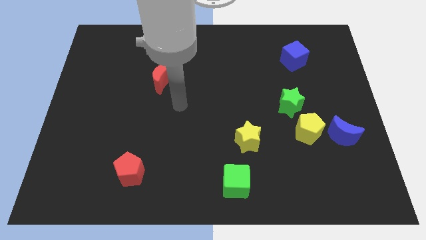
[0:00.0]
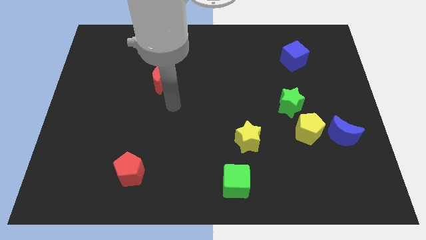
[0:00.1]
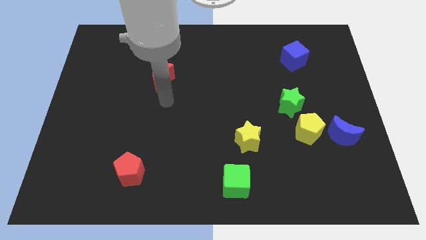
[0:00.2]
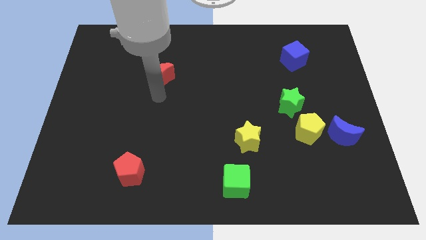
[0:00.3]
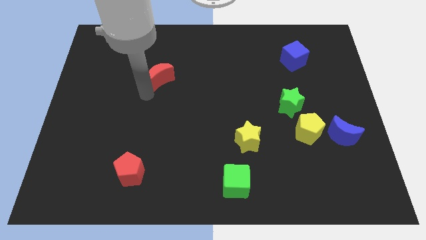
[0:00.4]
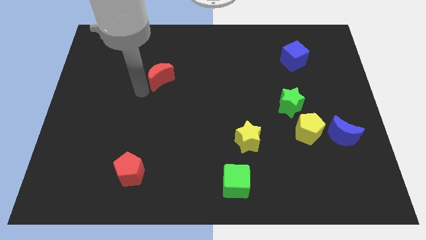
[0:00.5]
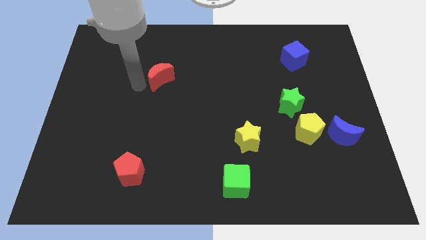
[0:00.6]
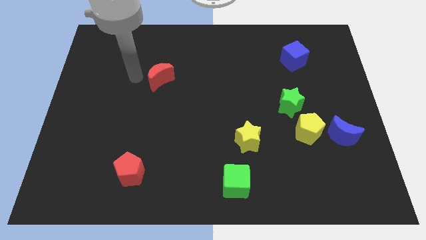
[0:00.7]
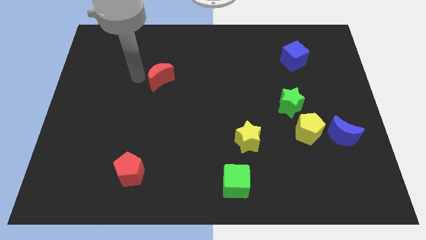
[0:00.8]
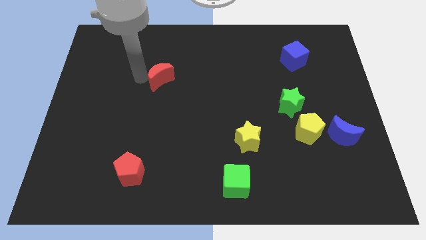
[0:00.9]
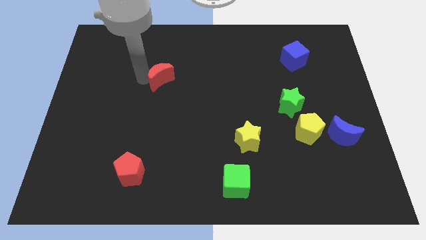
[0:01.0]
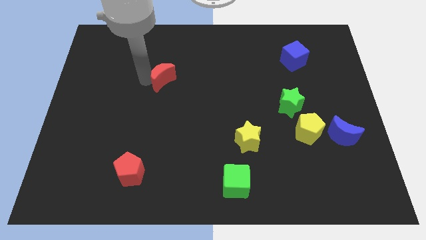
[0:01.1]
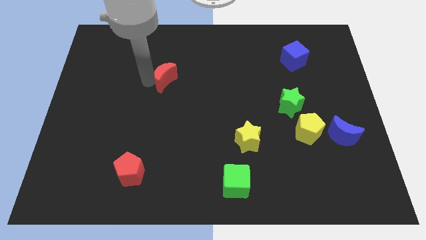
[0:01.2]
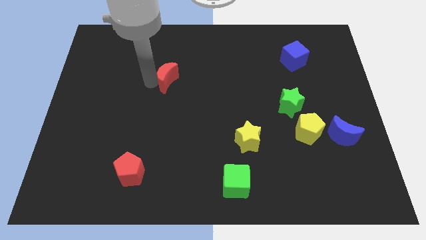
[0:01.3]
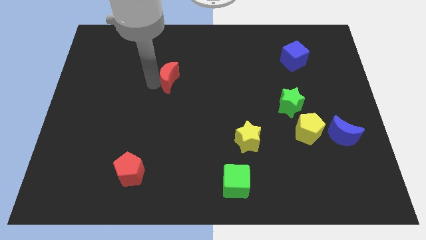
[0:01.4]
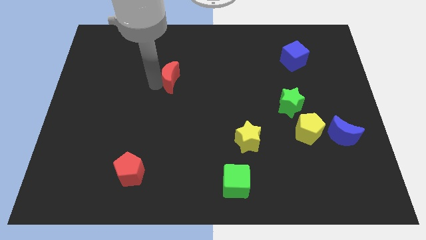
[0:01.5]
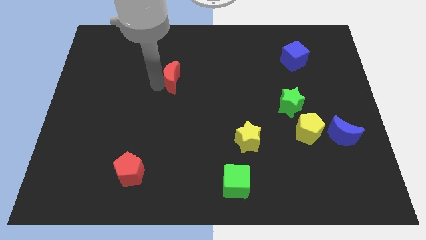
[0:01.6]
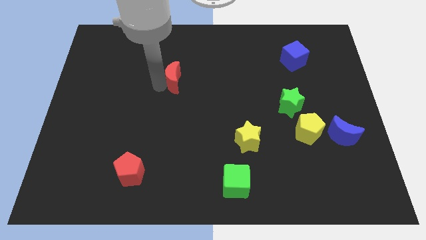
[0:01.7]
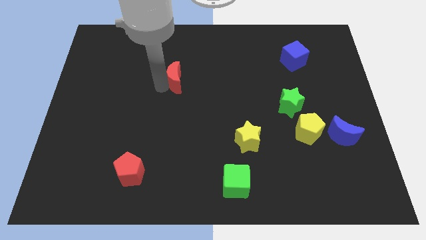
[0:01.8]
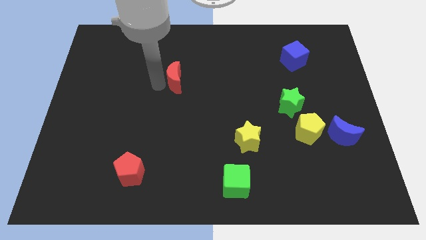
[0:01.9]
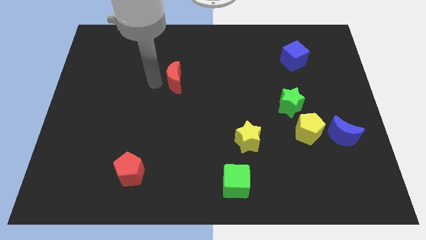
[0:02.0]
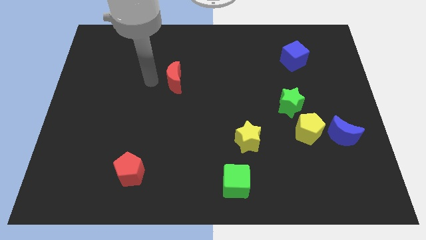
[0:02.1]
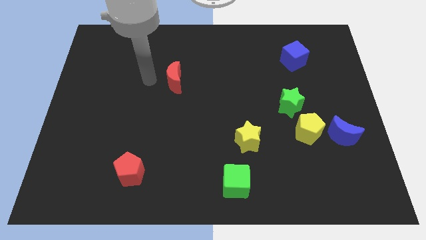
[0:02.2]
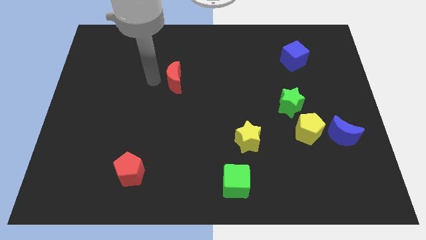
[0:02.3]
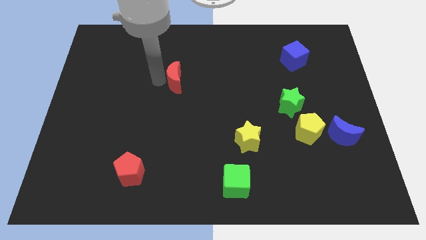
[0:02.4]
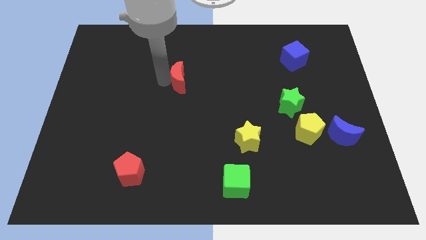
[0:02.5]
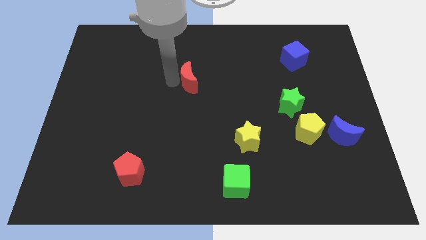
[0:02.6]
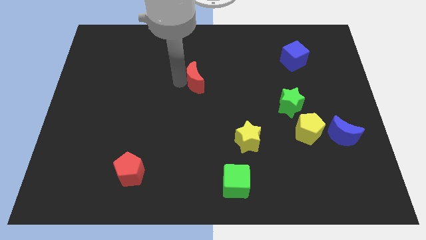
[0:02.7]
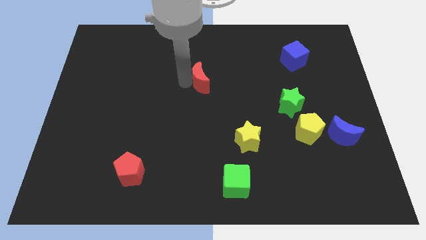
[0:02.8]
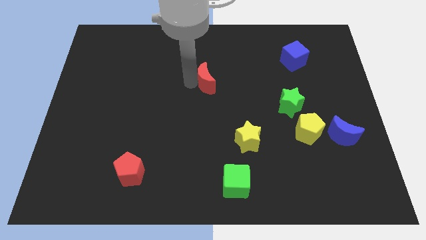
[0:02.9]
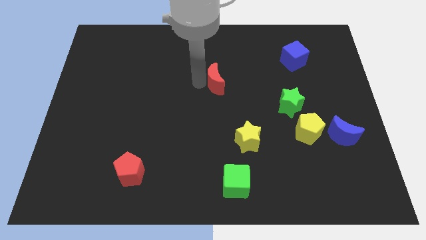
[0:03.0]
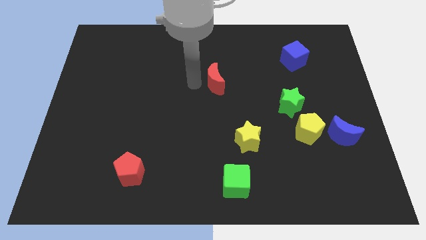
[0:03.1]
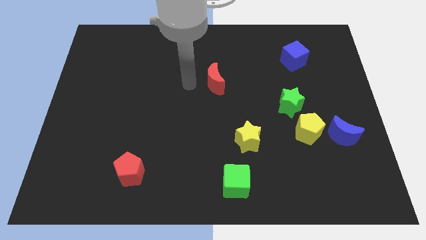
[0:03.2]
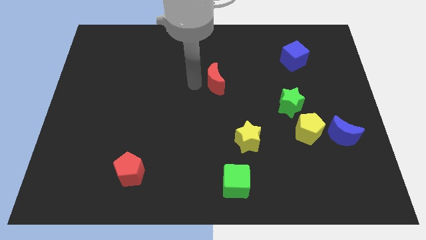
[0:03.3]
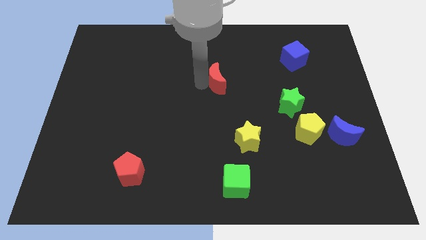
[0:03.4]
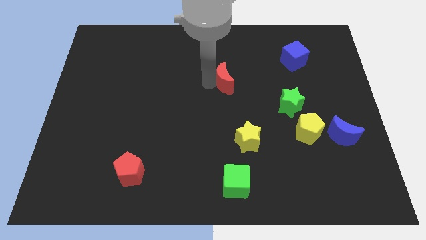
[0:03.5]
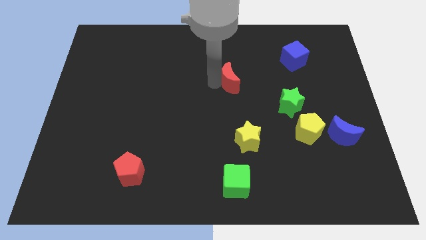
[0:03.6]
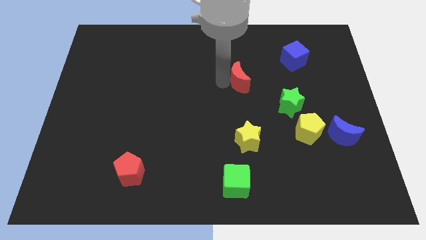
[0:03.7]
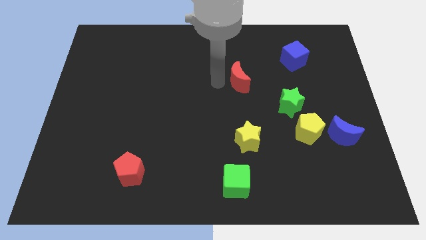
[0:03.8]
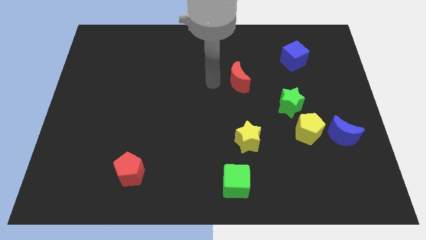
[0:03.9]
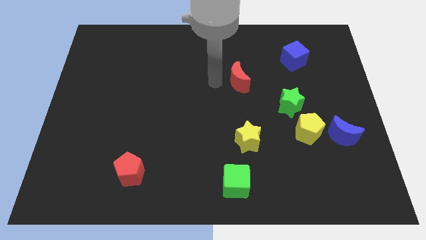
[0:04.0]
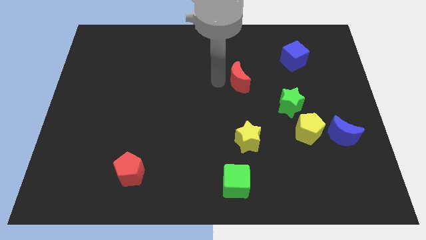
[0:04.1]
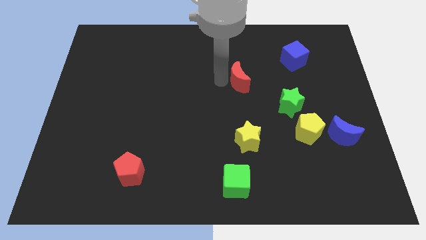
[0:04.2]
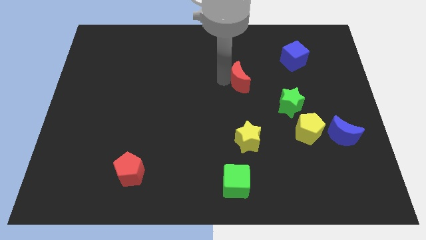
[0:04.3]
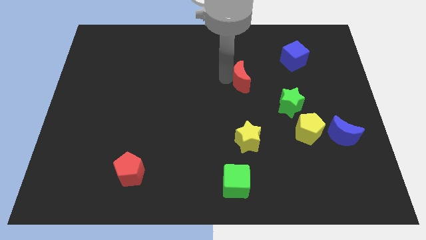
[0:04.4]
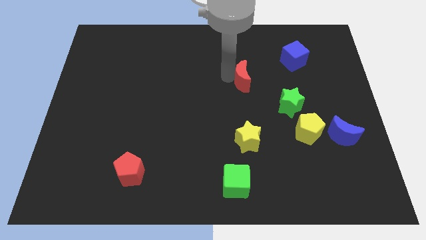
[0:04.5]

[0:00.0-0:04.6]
push the red moon to the right

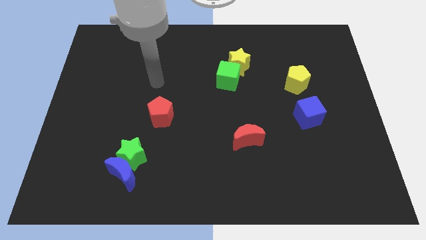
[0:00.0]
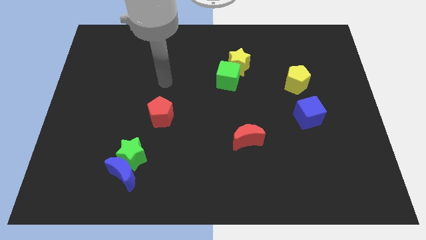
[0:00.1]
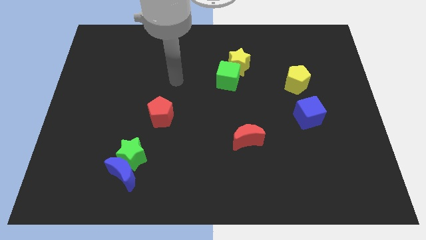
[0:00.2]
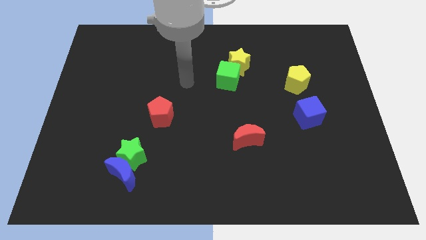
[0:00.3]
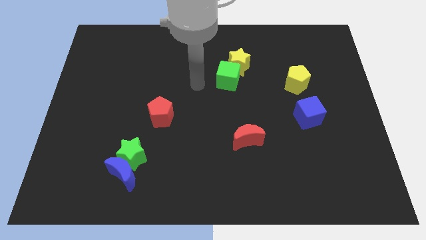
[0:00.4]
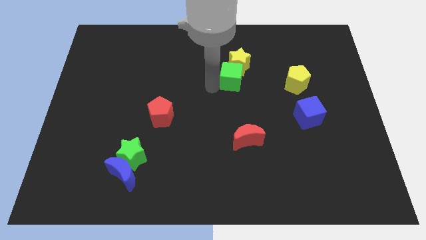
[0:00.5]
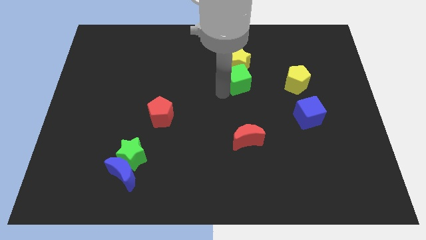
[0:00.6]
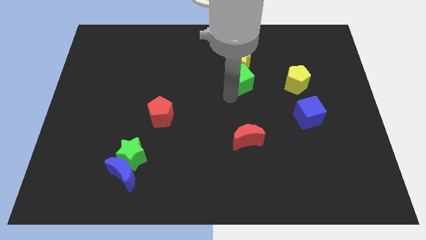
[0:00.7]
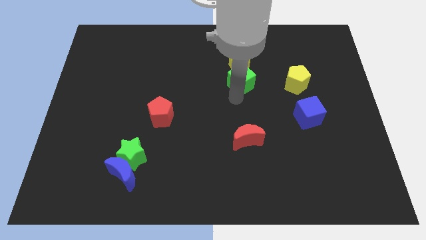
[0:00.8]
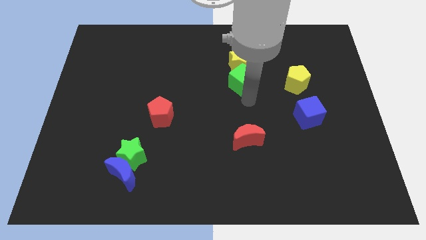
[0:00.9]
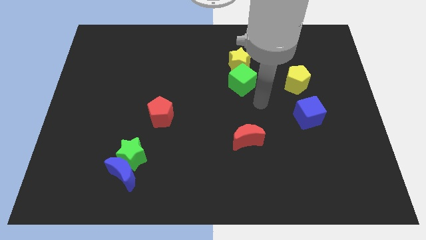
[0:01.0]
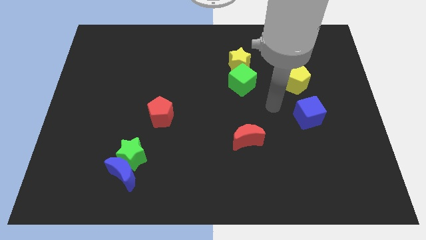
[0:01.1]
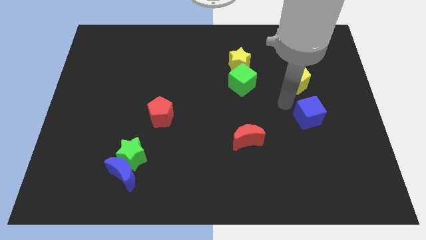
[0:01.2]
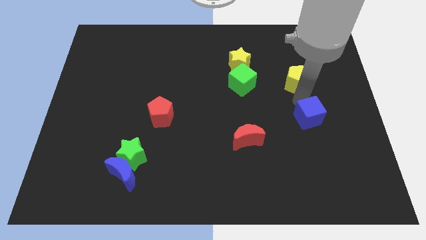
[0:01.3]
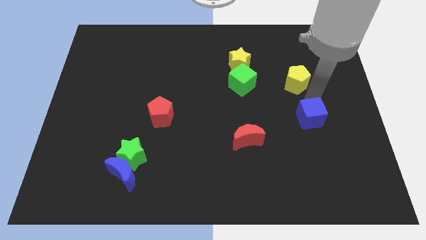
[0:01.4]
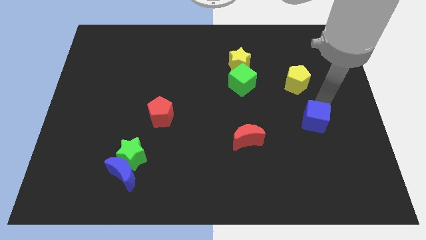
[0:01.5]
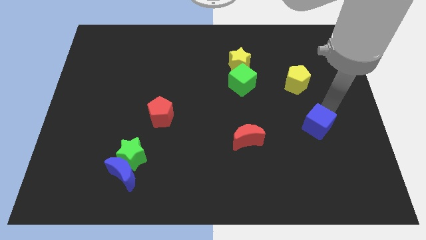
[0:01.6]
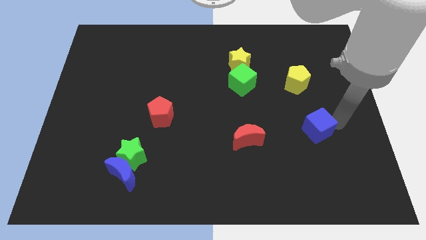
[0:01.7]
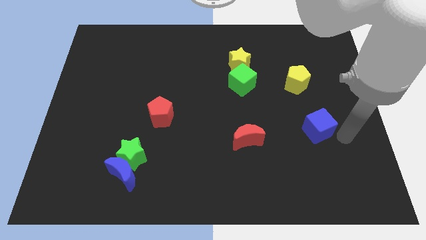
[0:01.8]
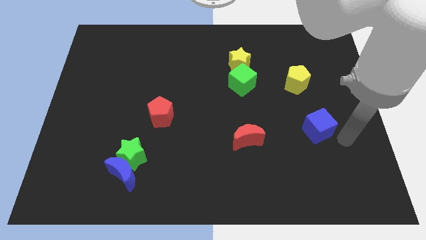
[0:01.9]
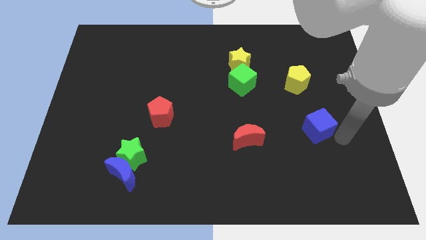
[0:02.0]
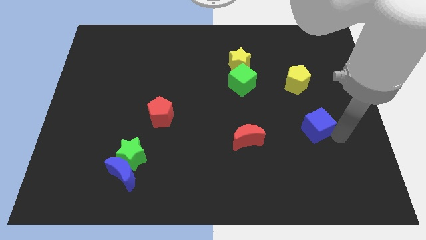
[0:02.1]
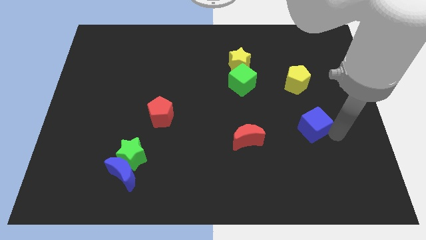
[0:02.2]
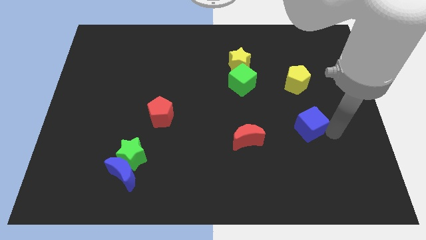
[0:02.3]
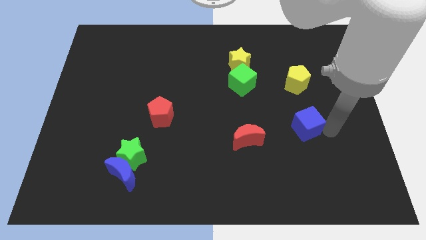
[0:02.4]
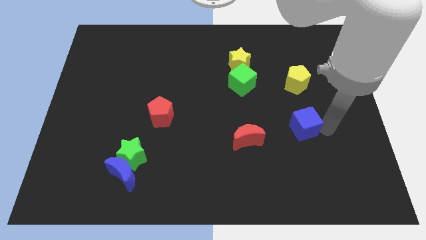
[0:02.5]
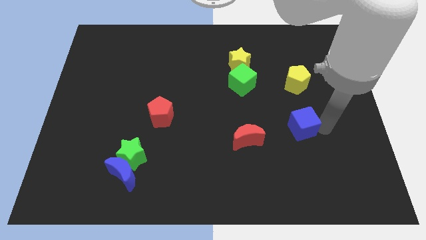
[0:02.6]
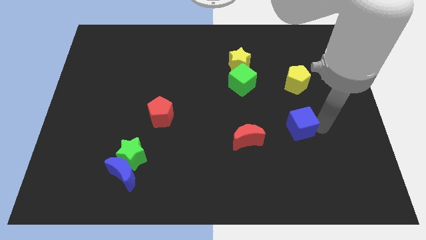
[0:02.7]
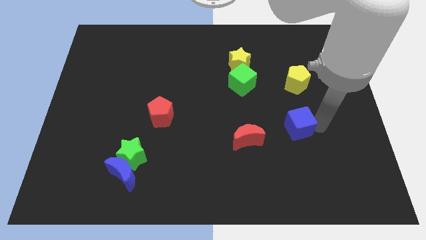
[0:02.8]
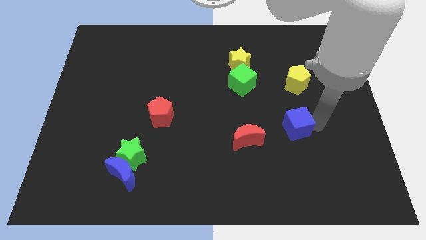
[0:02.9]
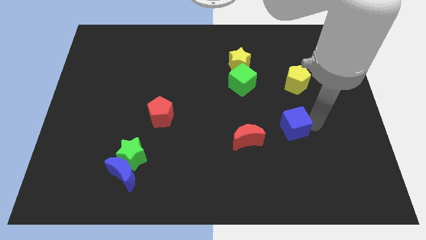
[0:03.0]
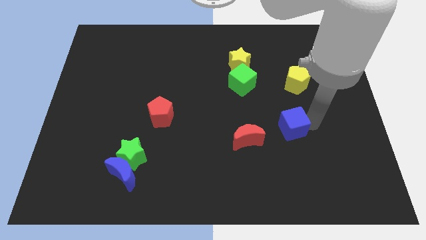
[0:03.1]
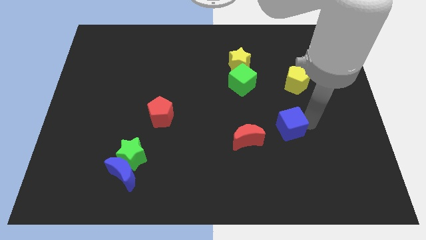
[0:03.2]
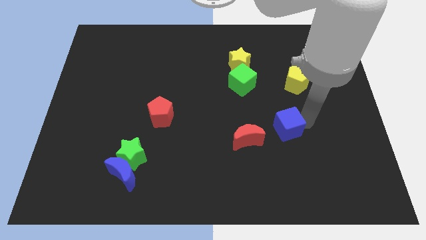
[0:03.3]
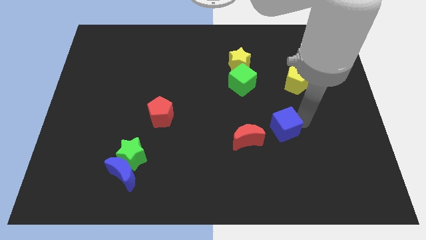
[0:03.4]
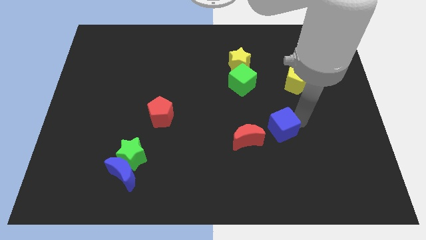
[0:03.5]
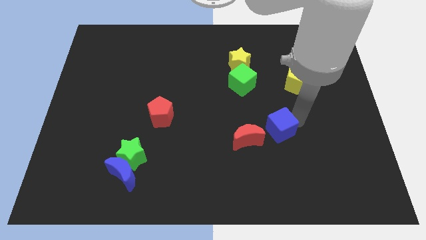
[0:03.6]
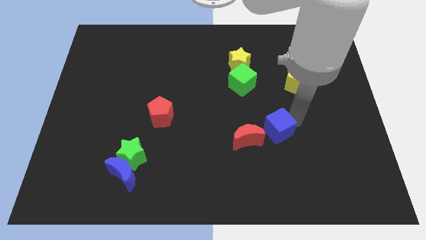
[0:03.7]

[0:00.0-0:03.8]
push the blue cube left a little
